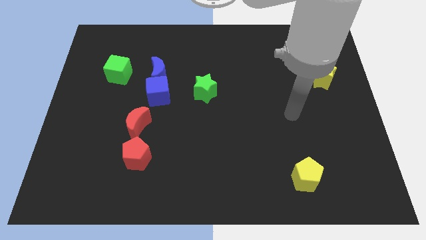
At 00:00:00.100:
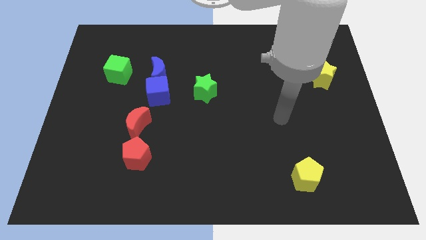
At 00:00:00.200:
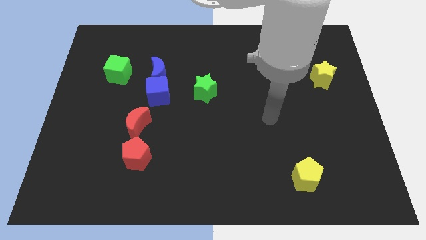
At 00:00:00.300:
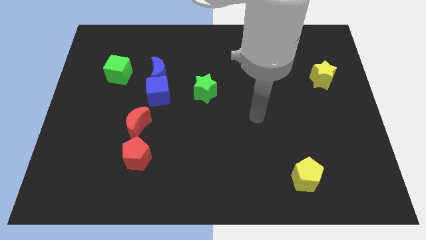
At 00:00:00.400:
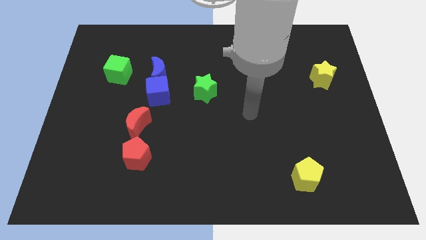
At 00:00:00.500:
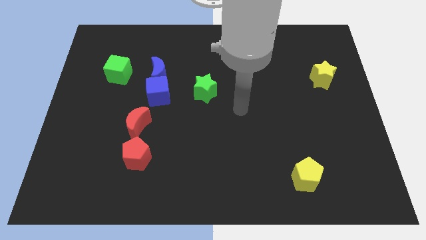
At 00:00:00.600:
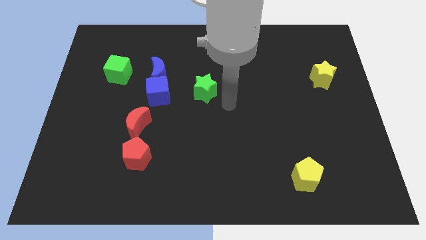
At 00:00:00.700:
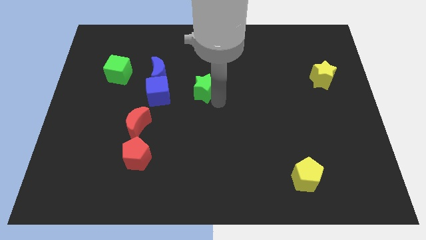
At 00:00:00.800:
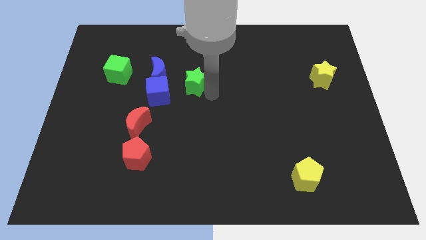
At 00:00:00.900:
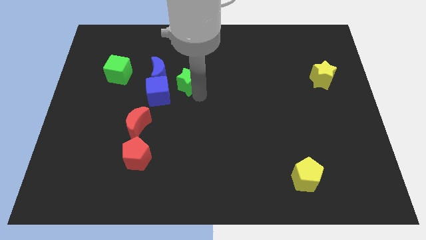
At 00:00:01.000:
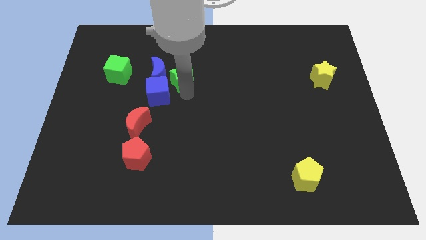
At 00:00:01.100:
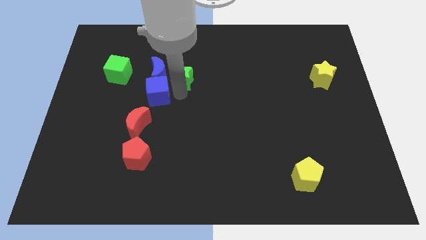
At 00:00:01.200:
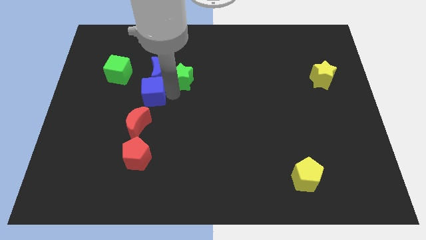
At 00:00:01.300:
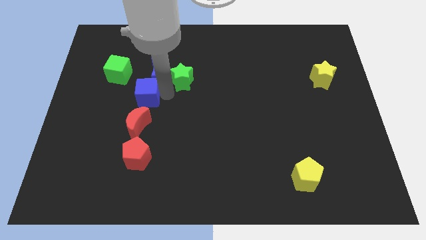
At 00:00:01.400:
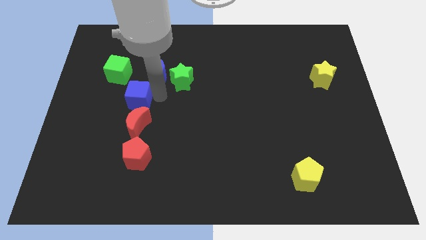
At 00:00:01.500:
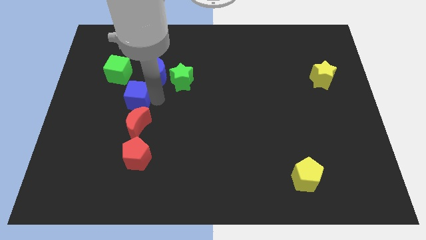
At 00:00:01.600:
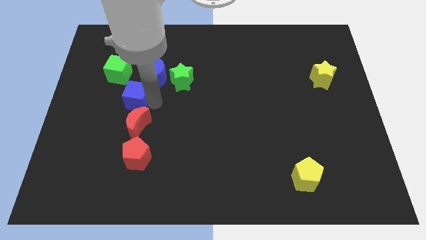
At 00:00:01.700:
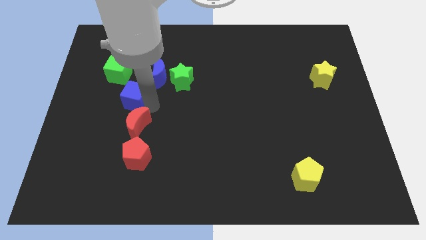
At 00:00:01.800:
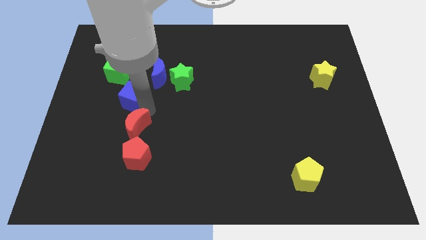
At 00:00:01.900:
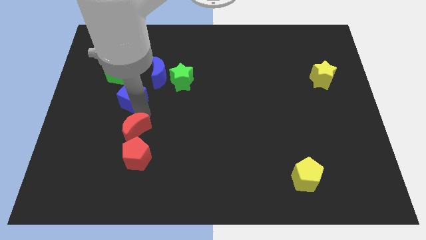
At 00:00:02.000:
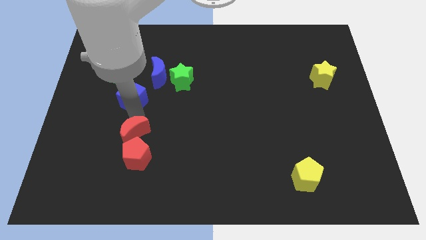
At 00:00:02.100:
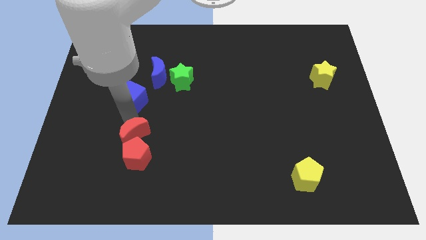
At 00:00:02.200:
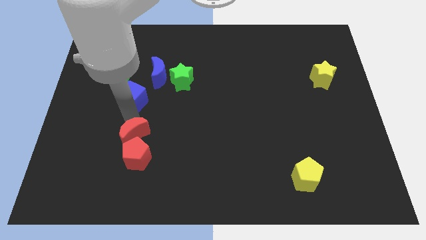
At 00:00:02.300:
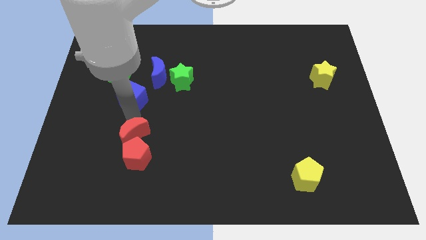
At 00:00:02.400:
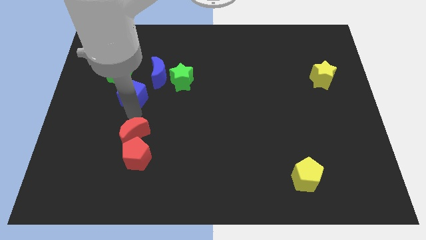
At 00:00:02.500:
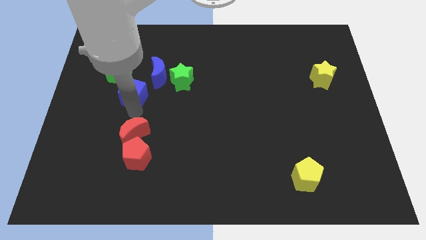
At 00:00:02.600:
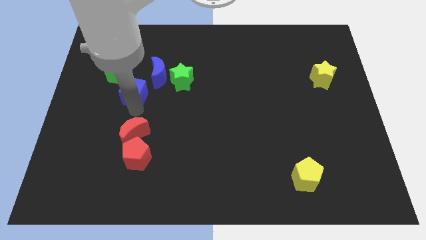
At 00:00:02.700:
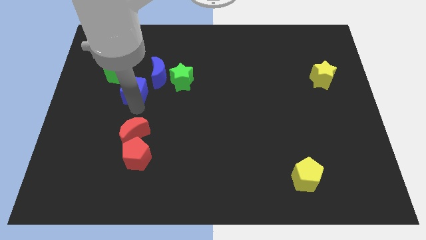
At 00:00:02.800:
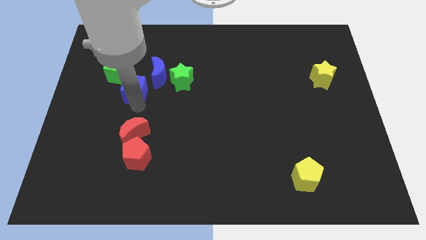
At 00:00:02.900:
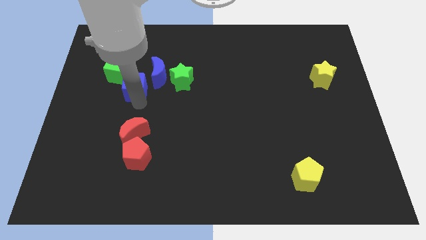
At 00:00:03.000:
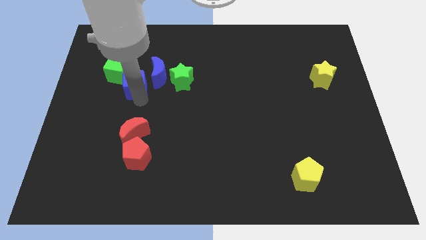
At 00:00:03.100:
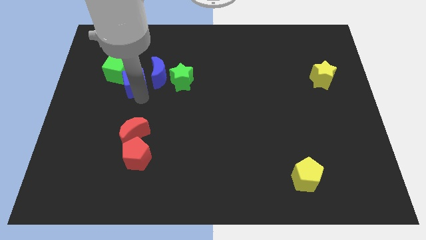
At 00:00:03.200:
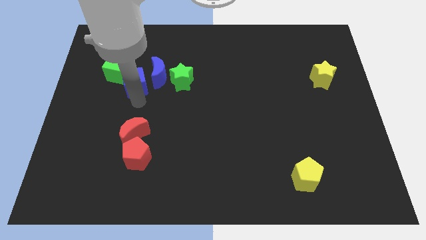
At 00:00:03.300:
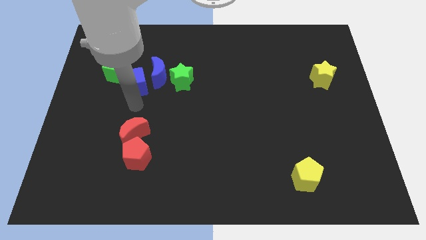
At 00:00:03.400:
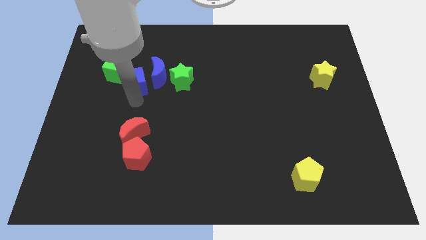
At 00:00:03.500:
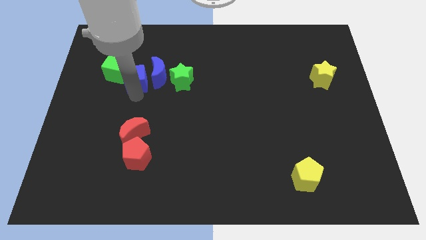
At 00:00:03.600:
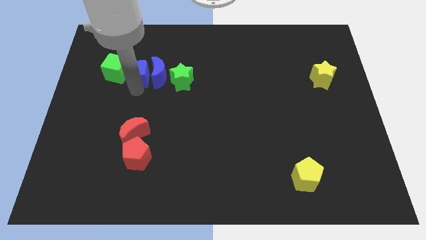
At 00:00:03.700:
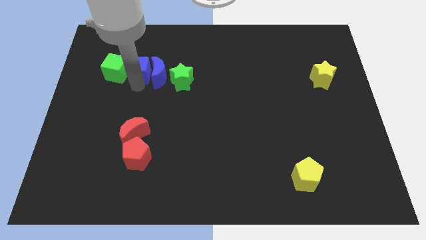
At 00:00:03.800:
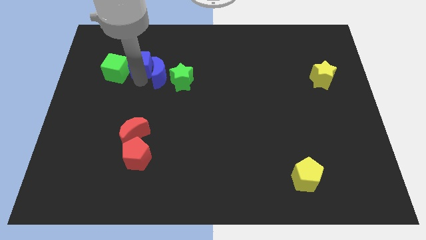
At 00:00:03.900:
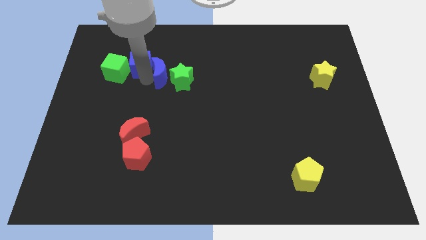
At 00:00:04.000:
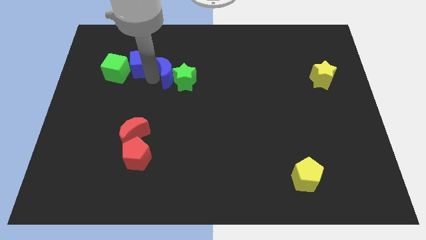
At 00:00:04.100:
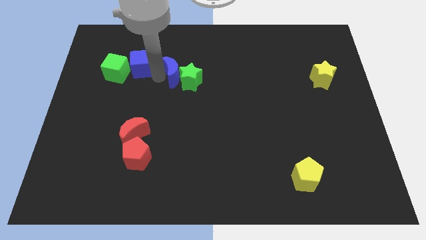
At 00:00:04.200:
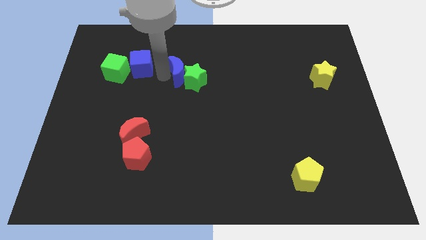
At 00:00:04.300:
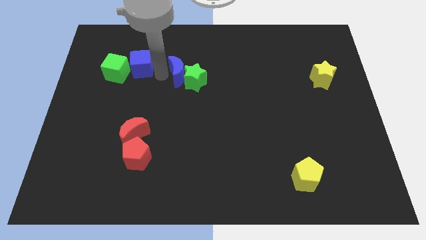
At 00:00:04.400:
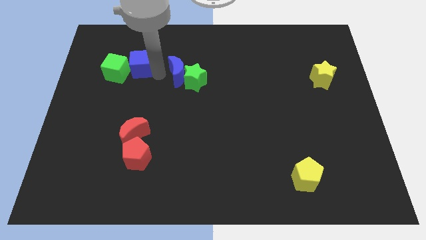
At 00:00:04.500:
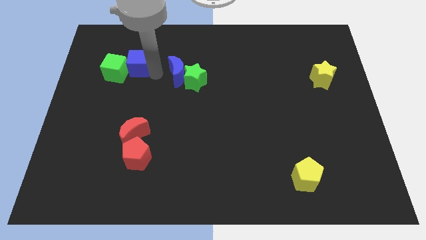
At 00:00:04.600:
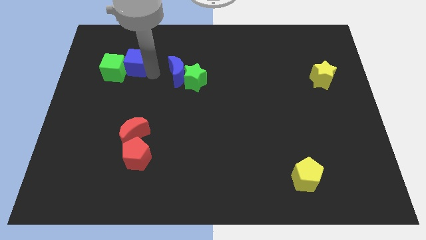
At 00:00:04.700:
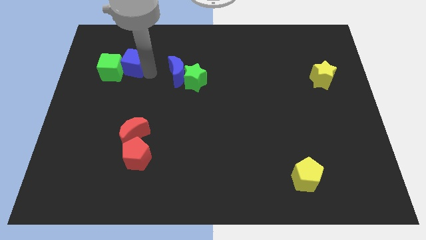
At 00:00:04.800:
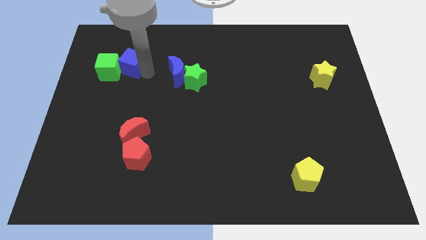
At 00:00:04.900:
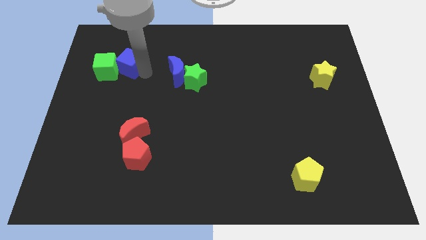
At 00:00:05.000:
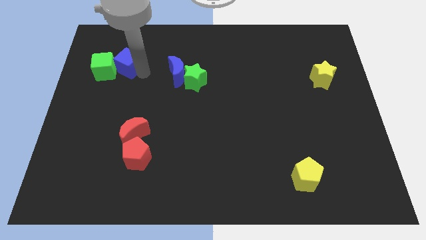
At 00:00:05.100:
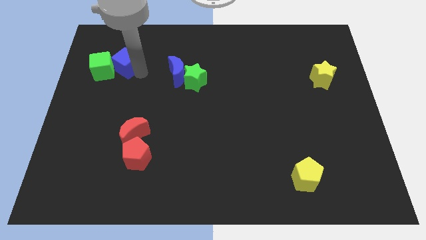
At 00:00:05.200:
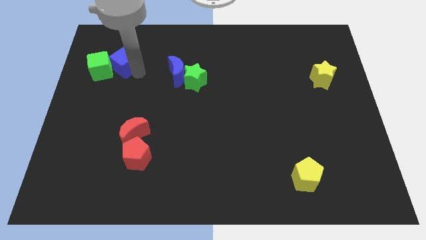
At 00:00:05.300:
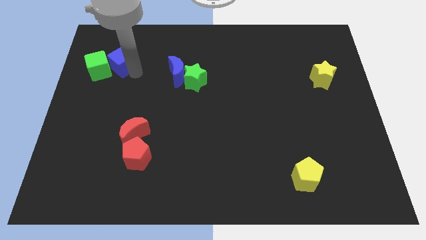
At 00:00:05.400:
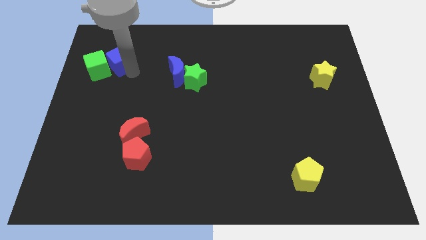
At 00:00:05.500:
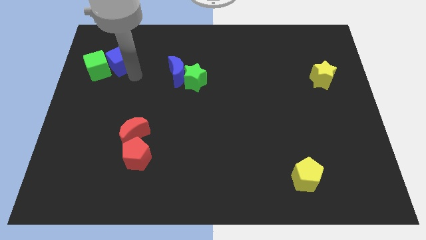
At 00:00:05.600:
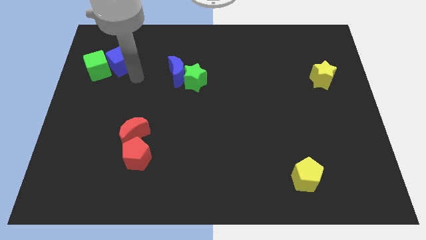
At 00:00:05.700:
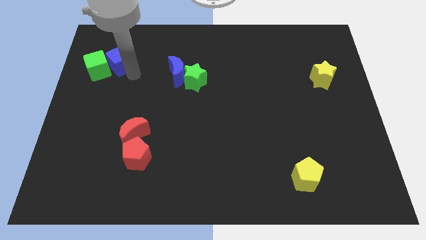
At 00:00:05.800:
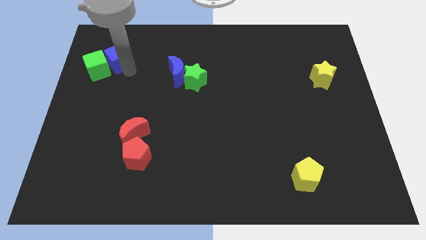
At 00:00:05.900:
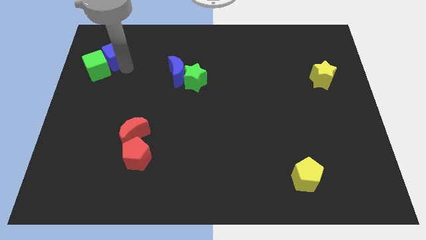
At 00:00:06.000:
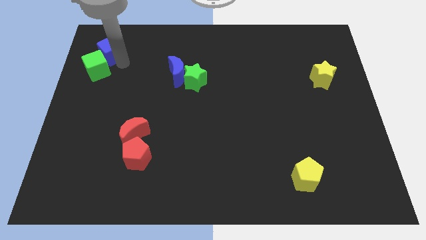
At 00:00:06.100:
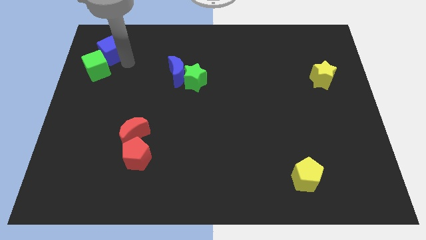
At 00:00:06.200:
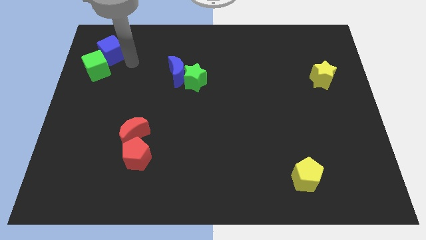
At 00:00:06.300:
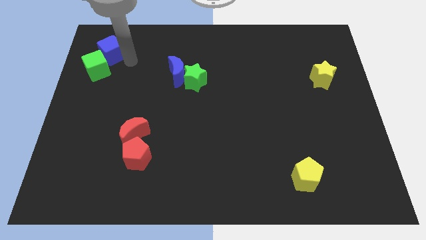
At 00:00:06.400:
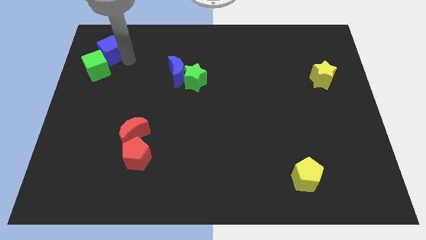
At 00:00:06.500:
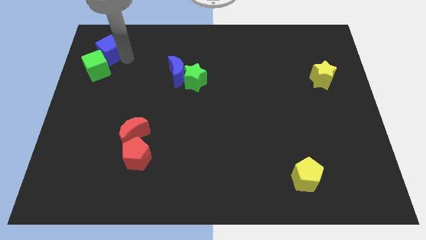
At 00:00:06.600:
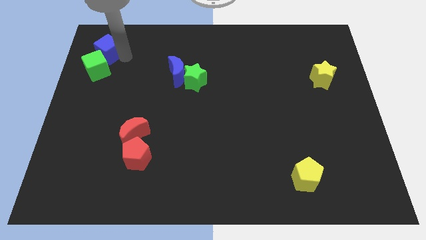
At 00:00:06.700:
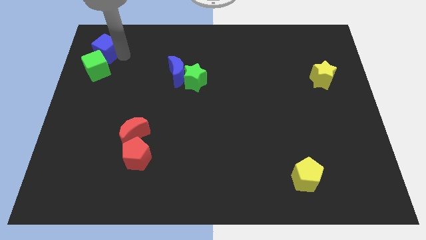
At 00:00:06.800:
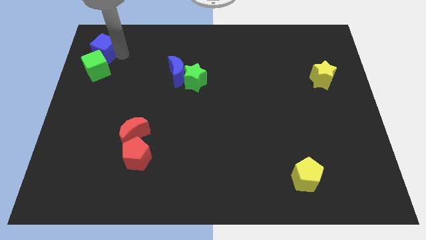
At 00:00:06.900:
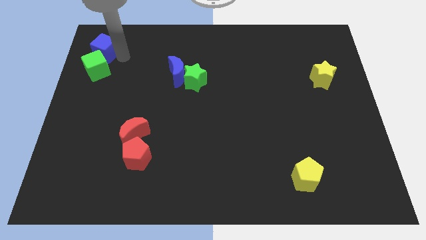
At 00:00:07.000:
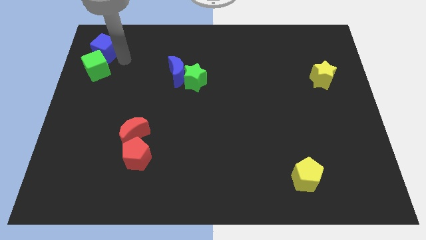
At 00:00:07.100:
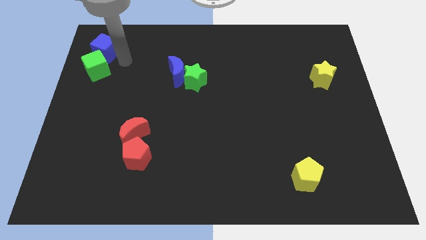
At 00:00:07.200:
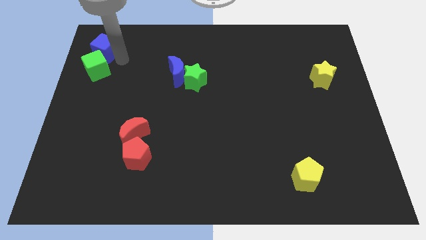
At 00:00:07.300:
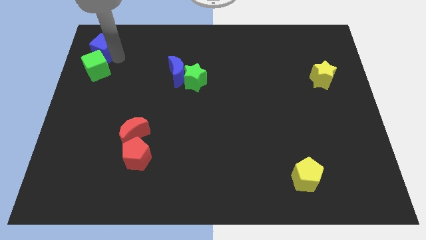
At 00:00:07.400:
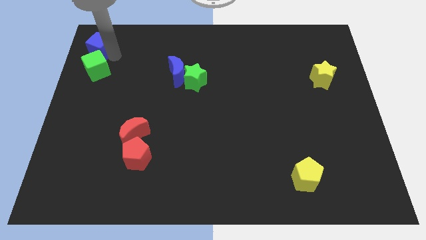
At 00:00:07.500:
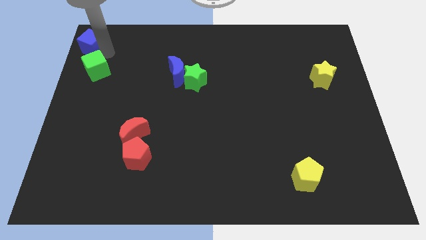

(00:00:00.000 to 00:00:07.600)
put the blue cube to the top left
